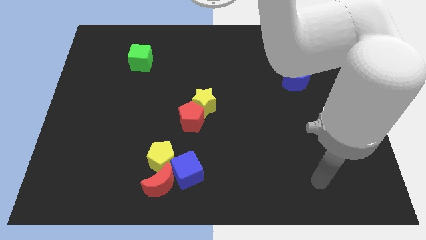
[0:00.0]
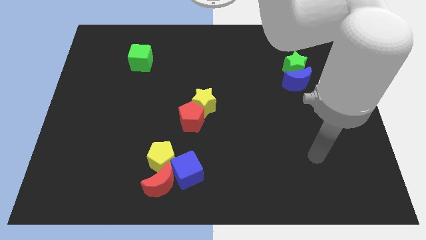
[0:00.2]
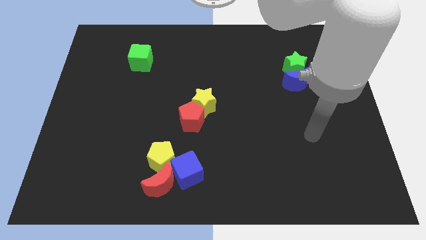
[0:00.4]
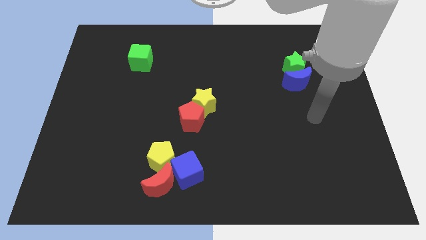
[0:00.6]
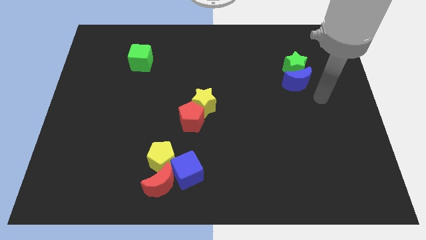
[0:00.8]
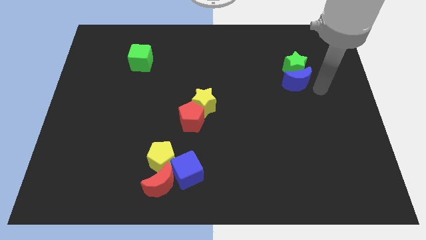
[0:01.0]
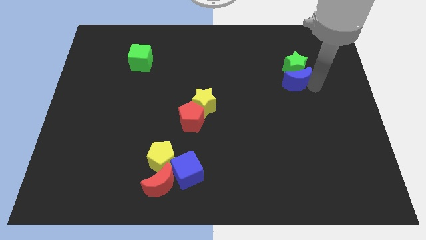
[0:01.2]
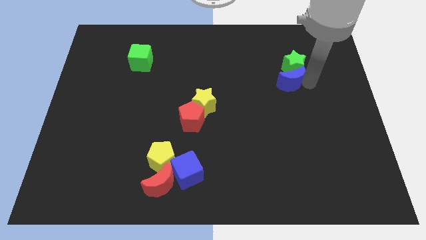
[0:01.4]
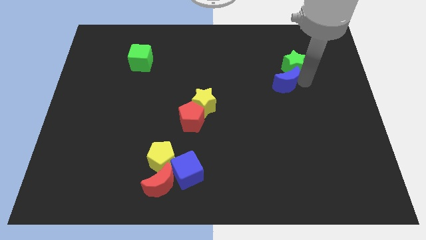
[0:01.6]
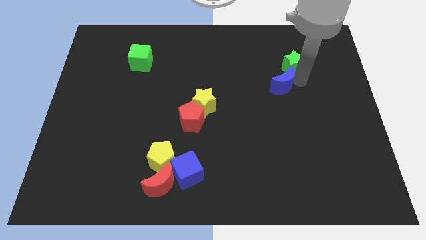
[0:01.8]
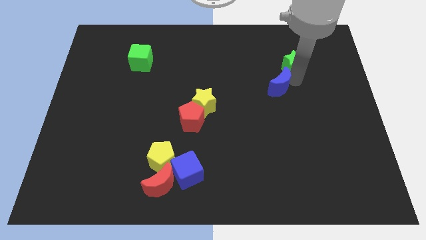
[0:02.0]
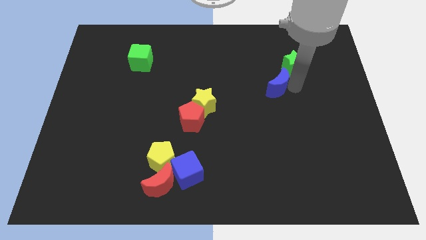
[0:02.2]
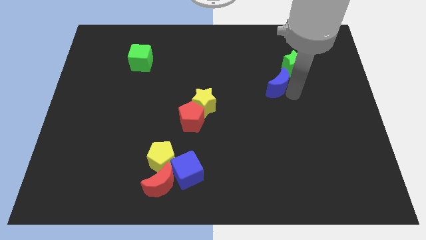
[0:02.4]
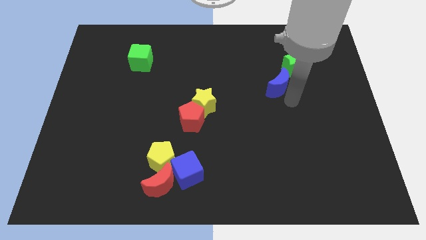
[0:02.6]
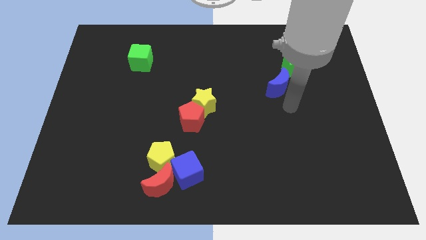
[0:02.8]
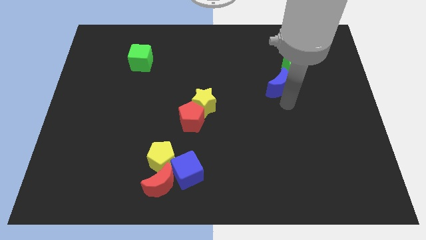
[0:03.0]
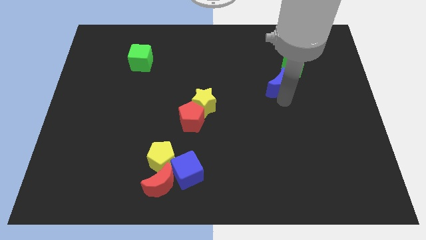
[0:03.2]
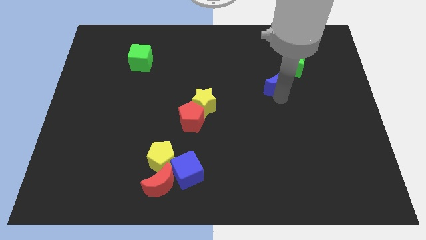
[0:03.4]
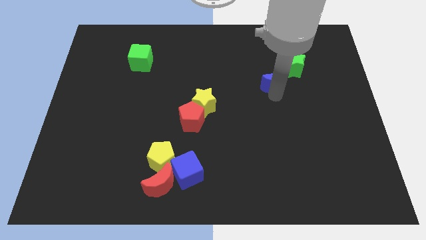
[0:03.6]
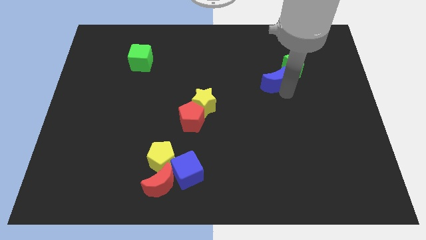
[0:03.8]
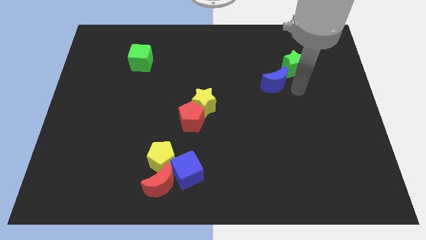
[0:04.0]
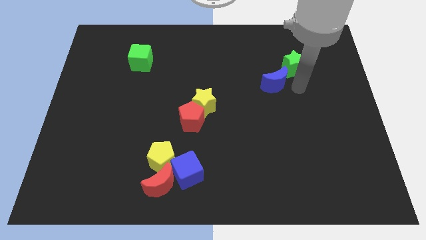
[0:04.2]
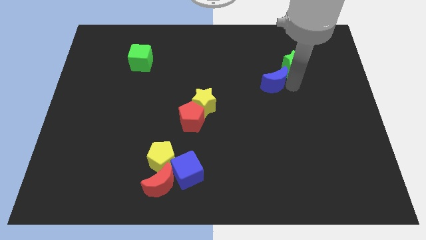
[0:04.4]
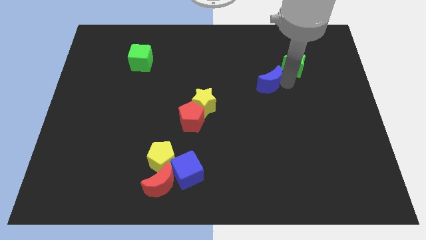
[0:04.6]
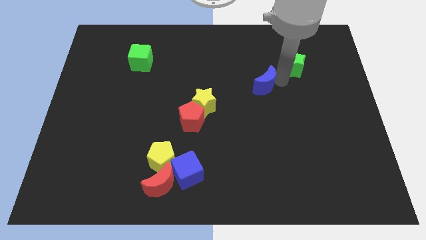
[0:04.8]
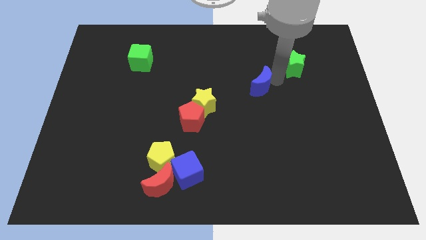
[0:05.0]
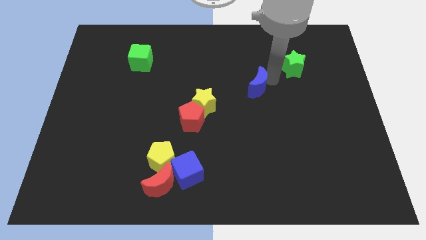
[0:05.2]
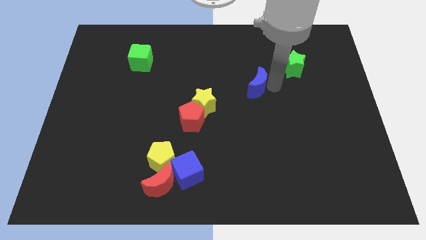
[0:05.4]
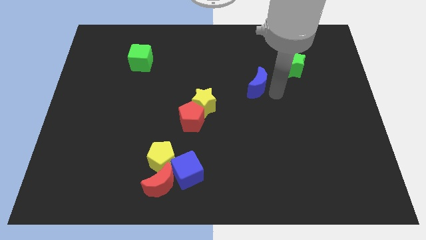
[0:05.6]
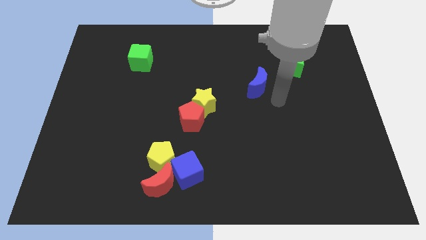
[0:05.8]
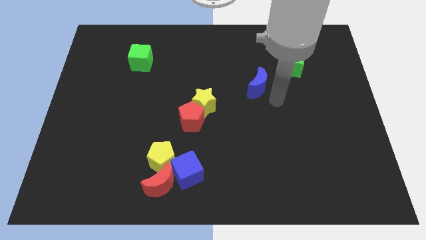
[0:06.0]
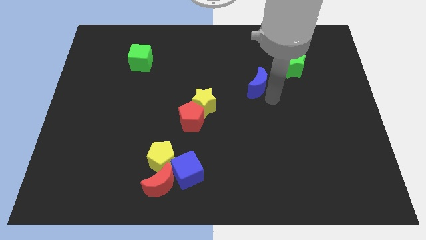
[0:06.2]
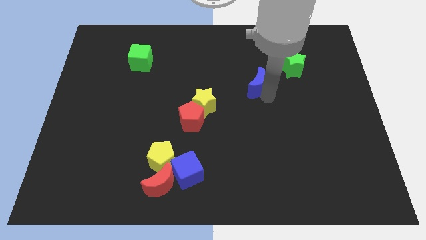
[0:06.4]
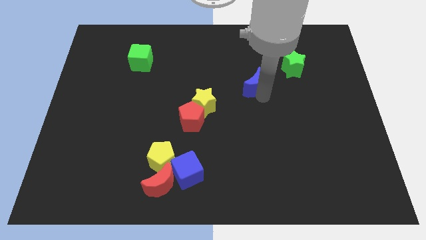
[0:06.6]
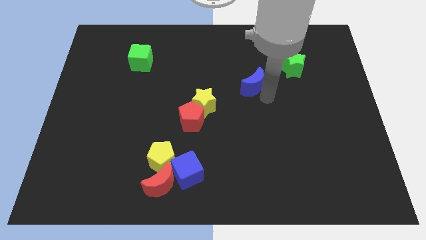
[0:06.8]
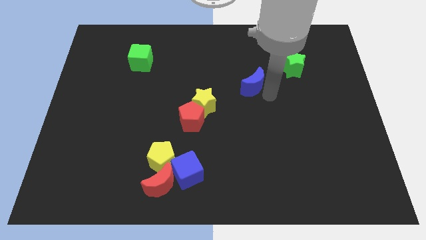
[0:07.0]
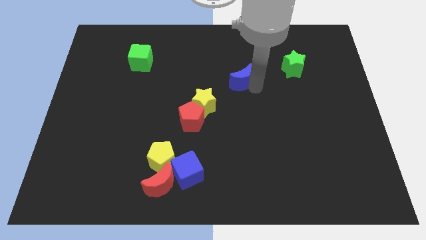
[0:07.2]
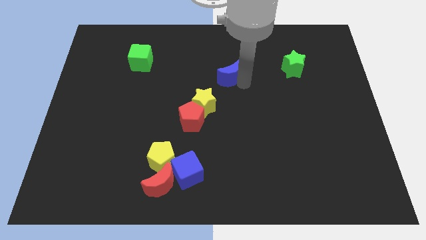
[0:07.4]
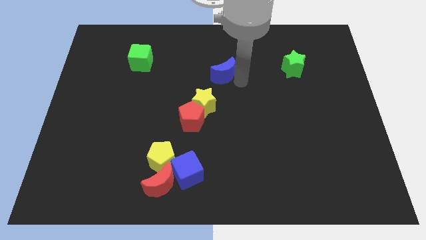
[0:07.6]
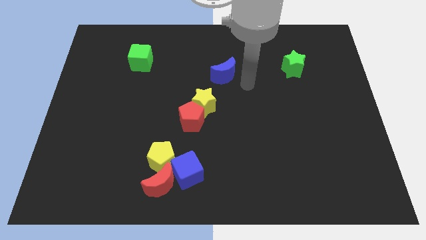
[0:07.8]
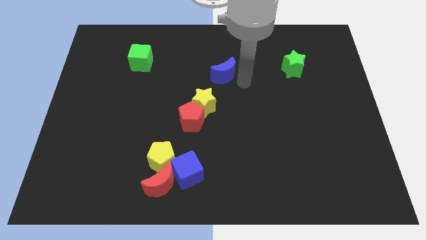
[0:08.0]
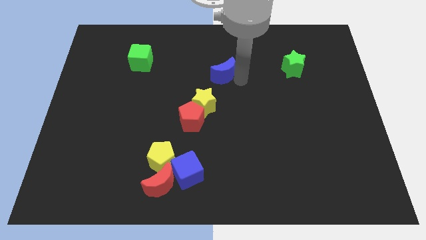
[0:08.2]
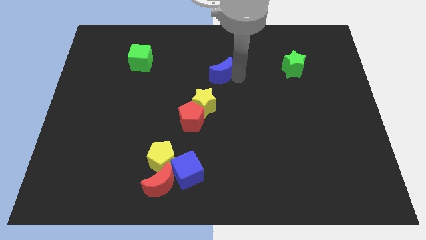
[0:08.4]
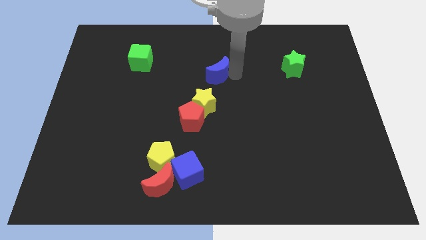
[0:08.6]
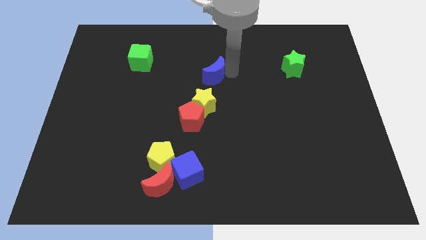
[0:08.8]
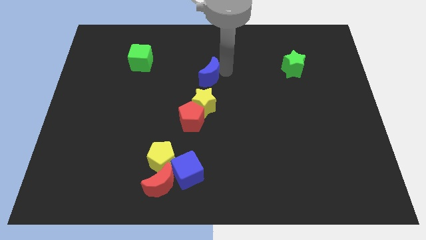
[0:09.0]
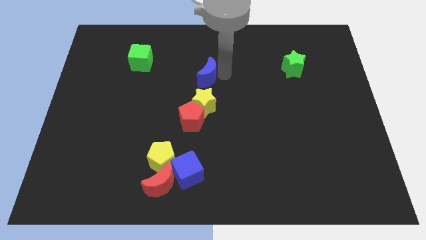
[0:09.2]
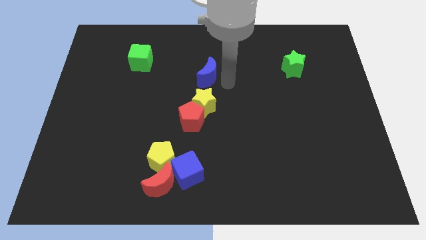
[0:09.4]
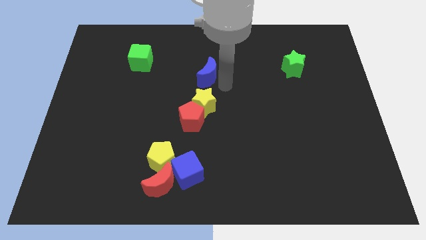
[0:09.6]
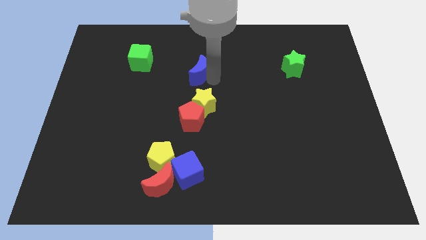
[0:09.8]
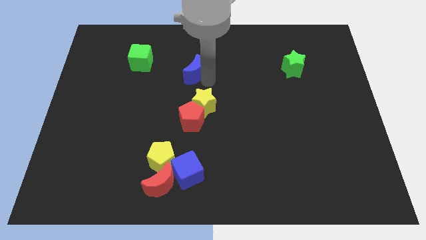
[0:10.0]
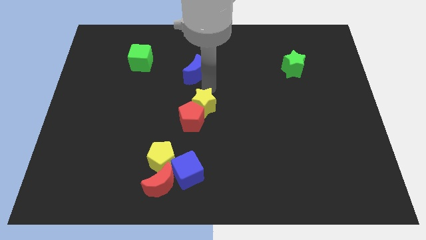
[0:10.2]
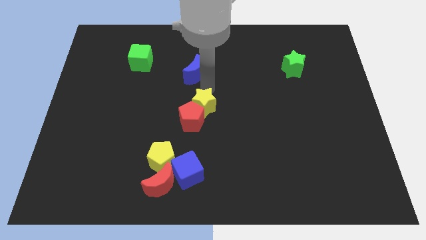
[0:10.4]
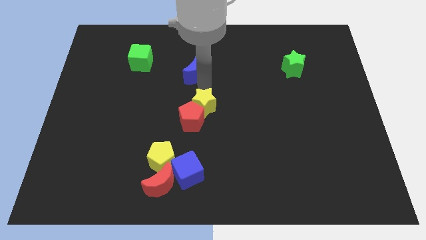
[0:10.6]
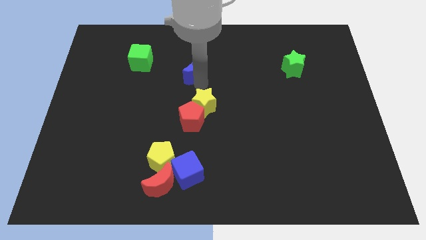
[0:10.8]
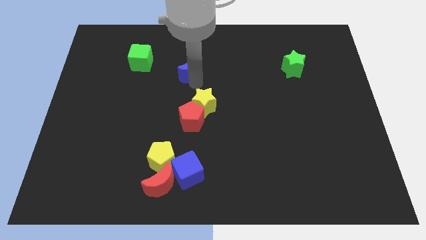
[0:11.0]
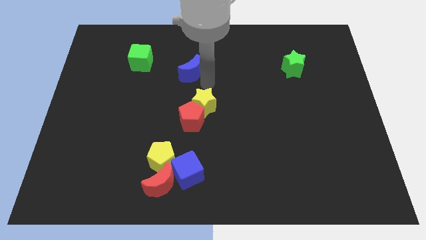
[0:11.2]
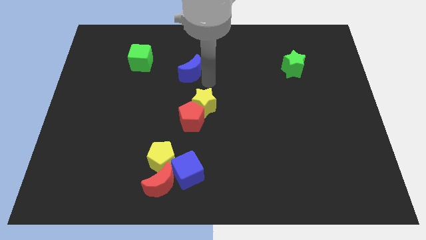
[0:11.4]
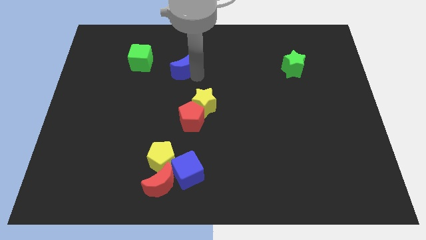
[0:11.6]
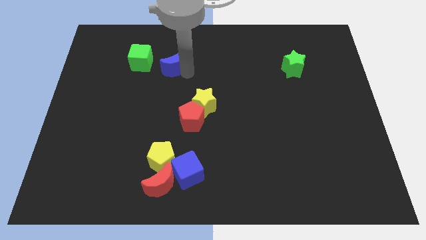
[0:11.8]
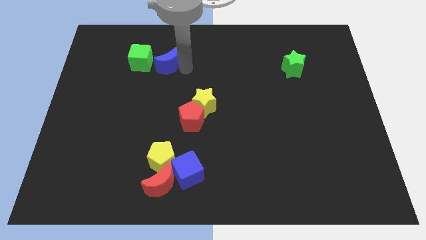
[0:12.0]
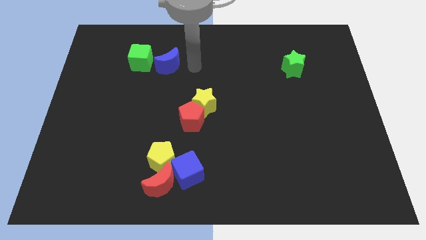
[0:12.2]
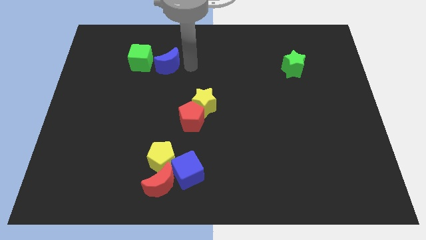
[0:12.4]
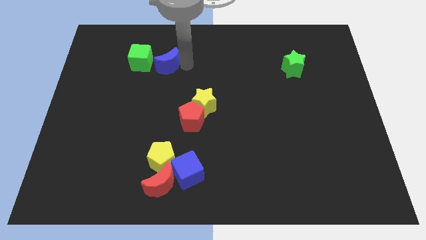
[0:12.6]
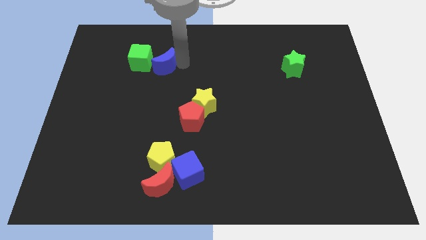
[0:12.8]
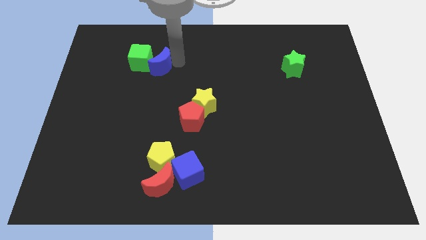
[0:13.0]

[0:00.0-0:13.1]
move the blue moon close to the green cube

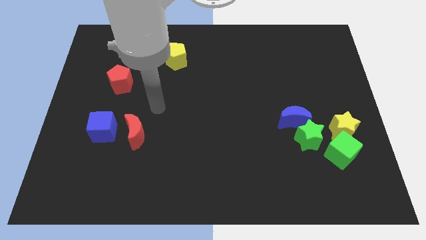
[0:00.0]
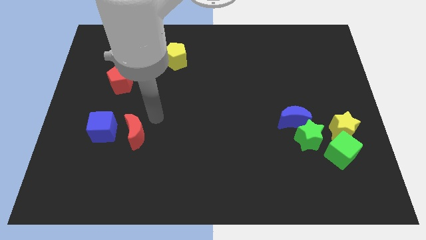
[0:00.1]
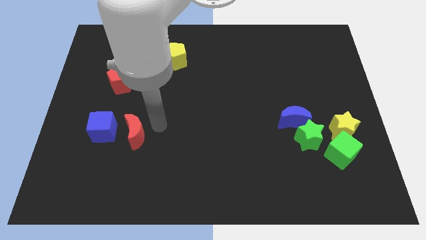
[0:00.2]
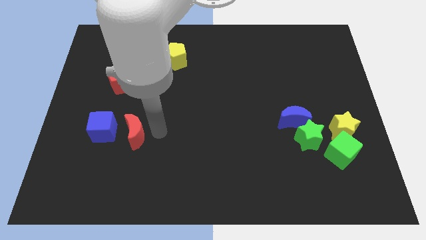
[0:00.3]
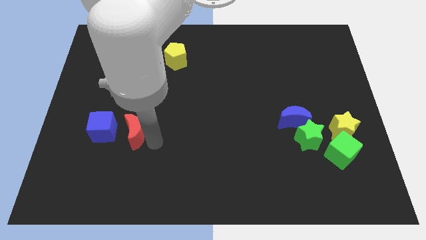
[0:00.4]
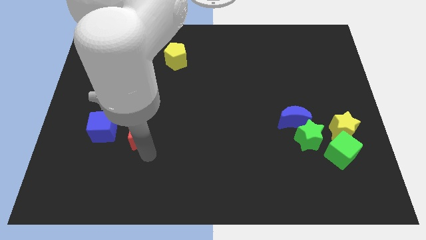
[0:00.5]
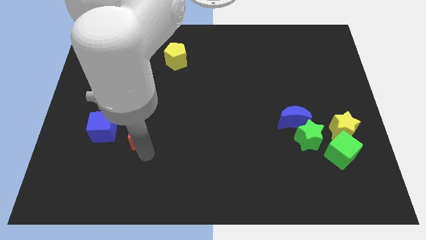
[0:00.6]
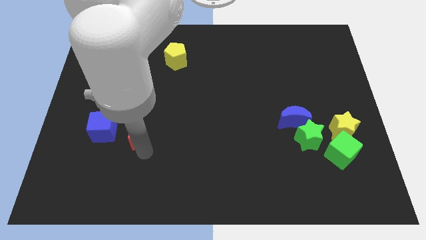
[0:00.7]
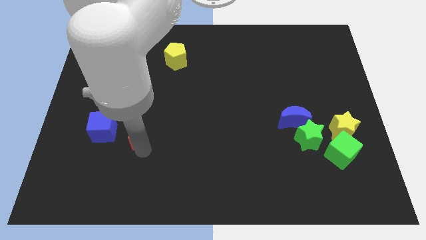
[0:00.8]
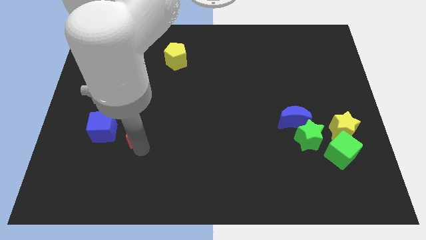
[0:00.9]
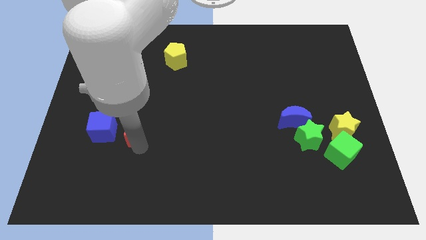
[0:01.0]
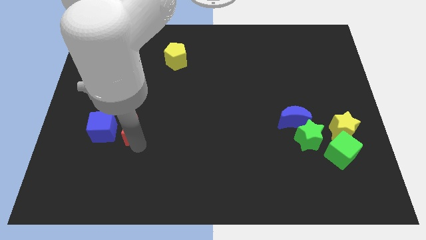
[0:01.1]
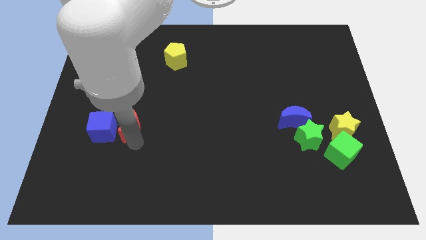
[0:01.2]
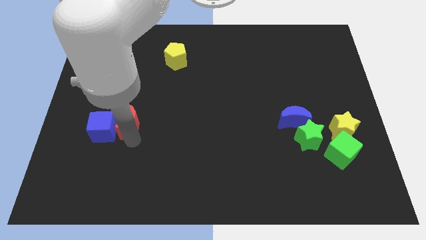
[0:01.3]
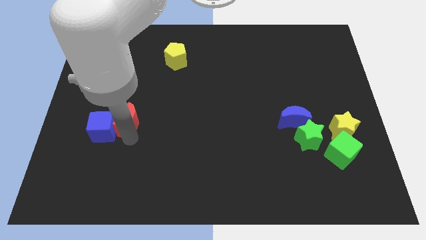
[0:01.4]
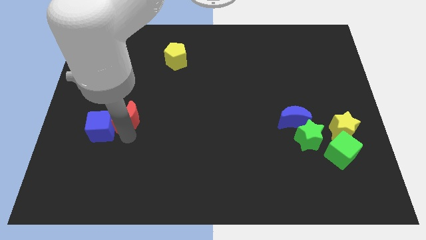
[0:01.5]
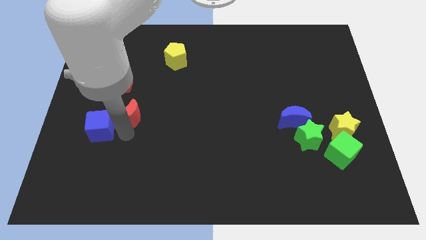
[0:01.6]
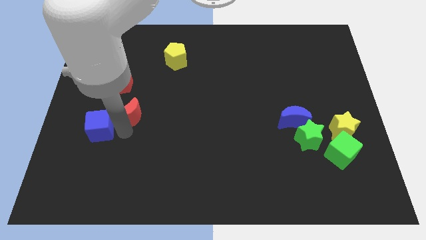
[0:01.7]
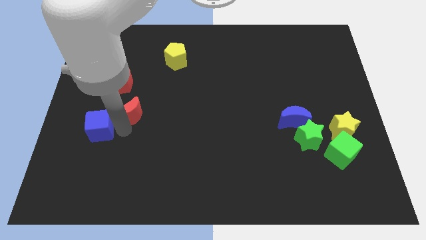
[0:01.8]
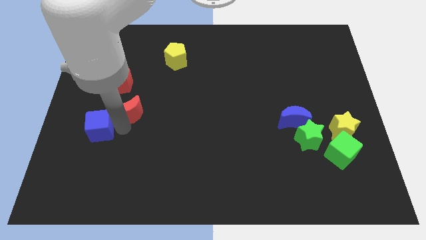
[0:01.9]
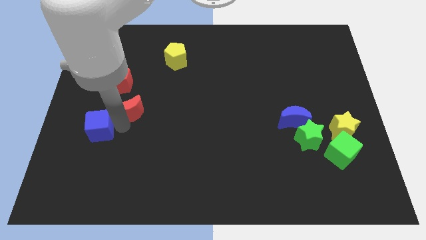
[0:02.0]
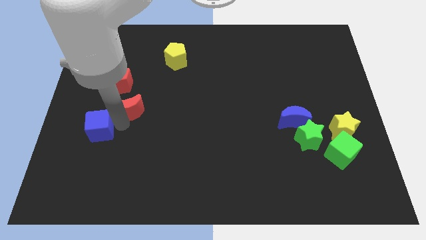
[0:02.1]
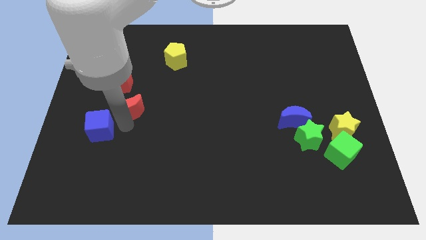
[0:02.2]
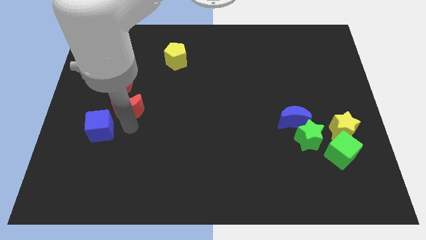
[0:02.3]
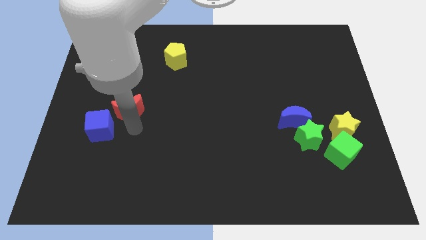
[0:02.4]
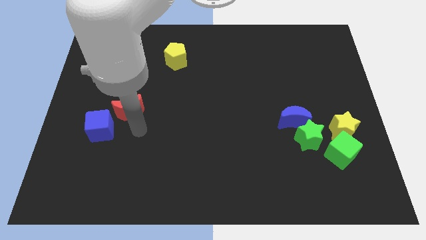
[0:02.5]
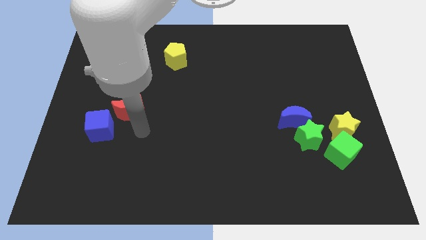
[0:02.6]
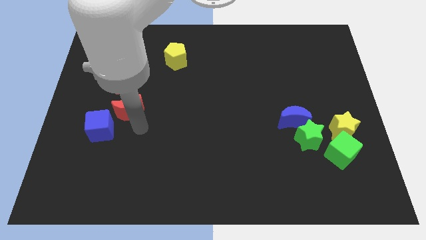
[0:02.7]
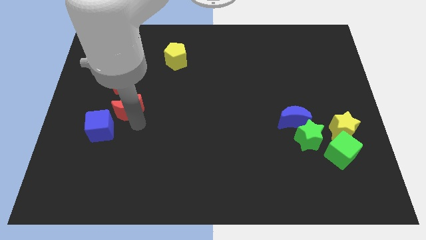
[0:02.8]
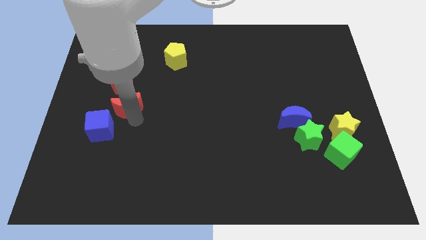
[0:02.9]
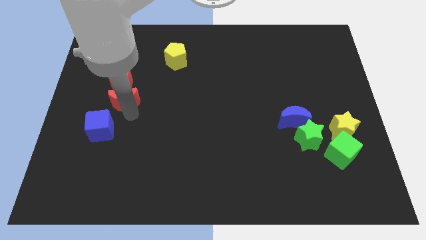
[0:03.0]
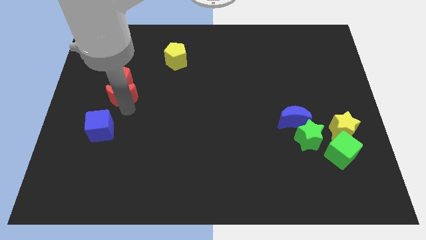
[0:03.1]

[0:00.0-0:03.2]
put the red moon towards the red pentagon
